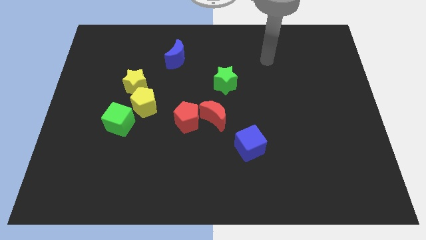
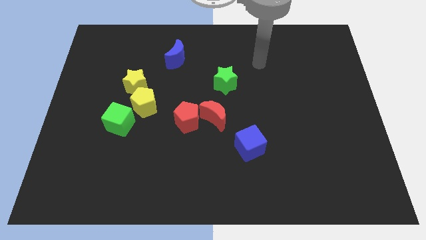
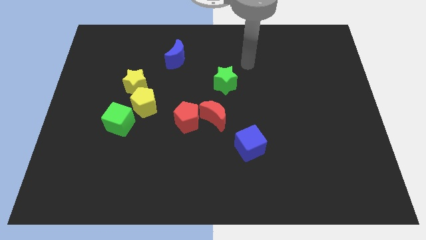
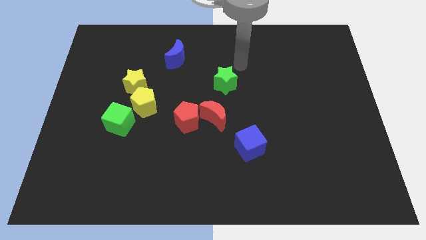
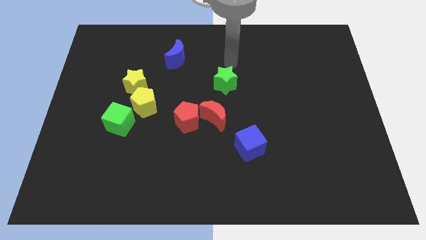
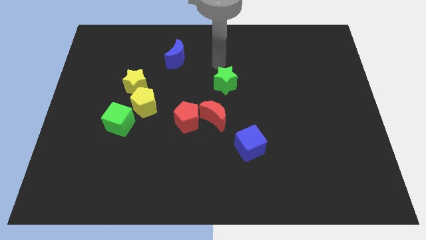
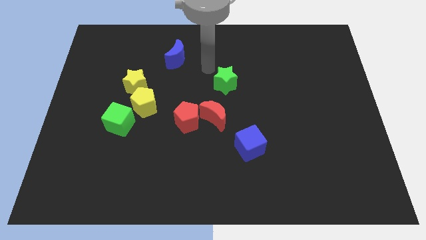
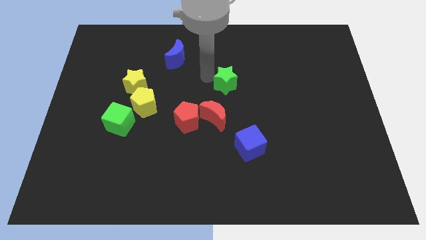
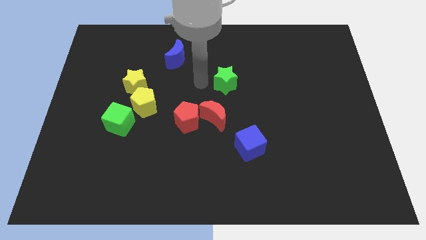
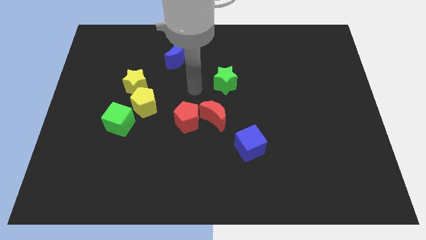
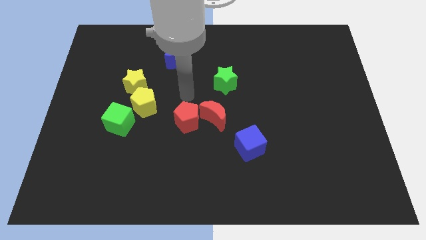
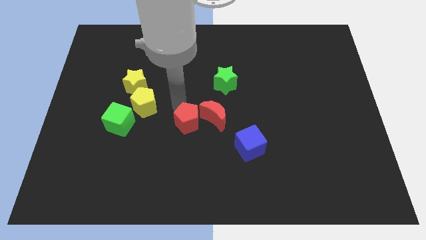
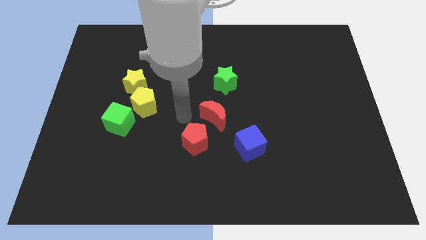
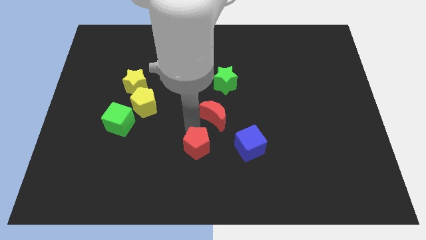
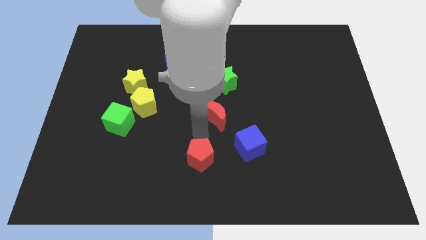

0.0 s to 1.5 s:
pull the red moon apart from the red pentagon

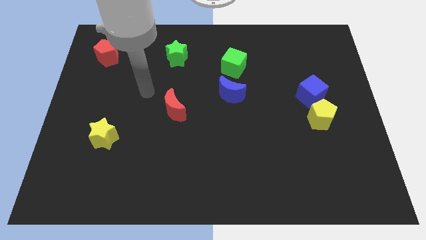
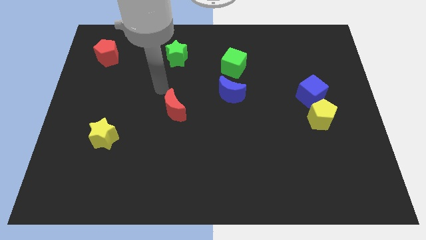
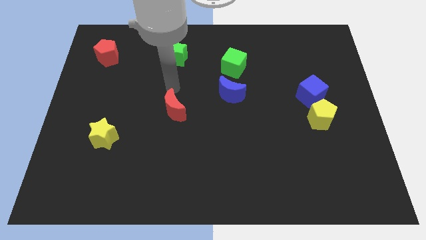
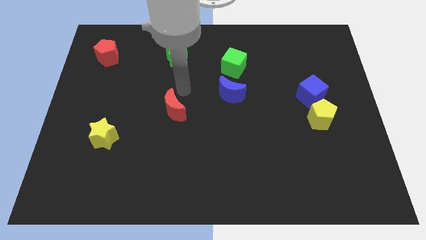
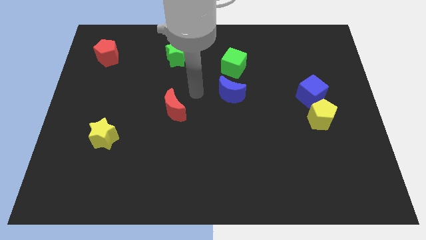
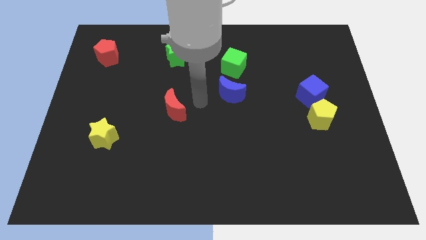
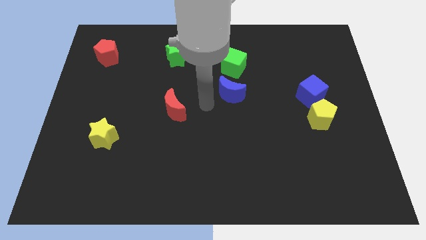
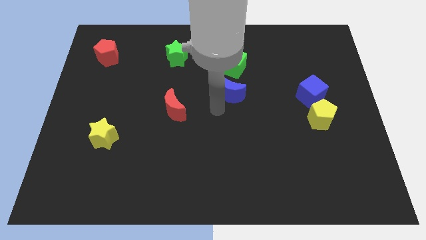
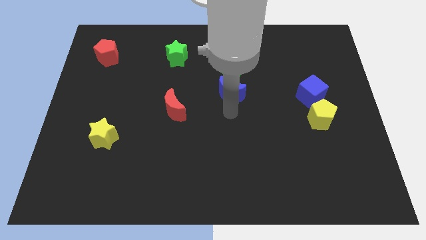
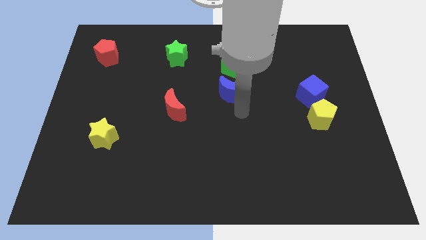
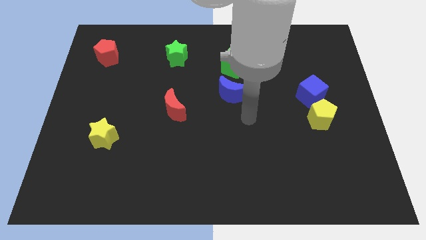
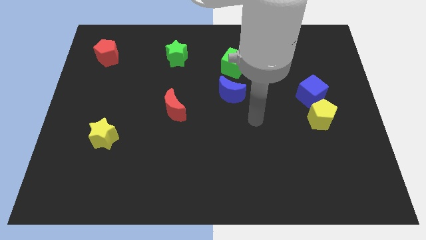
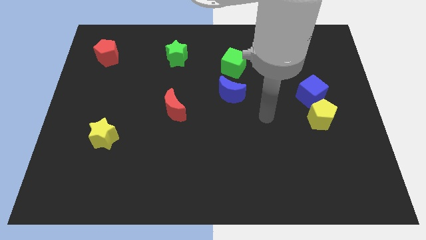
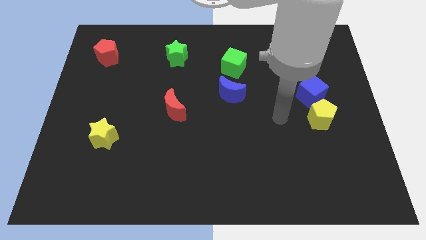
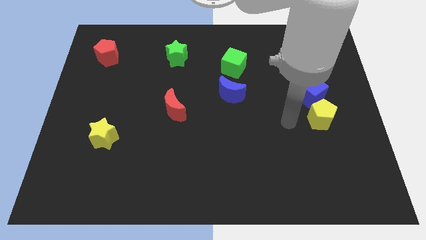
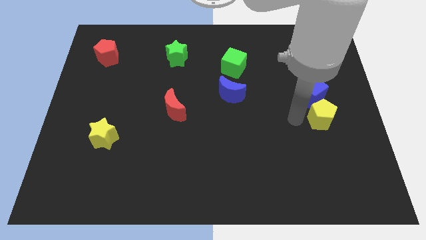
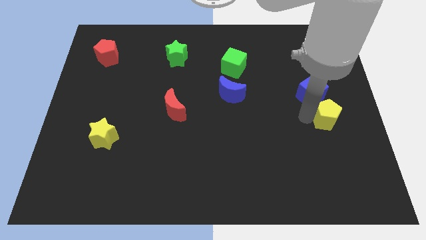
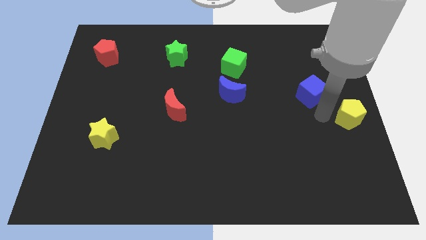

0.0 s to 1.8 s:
move the blue cube away from the yellow pentagon

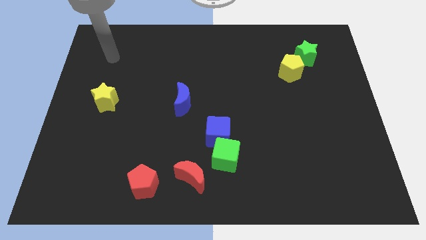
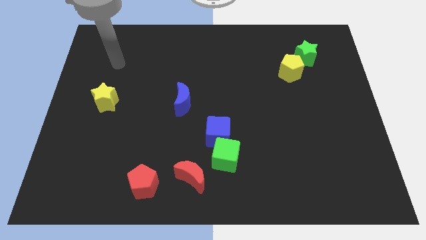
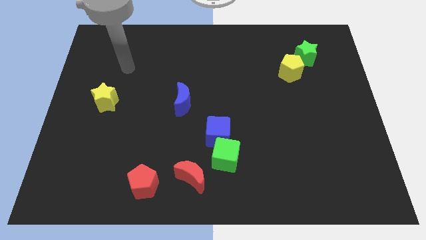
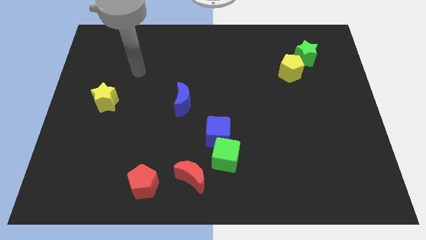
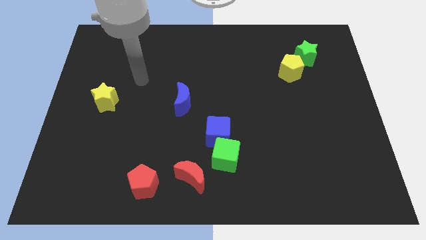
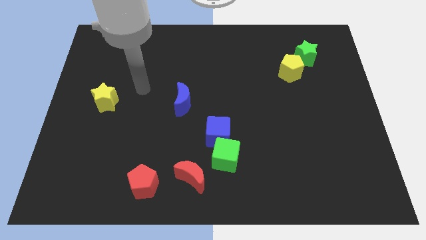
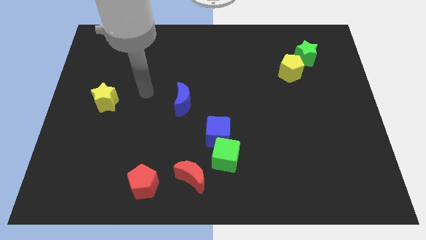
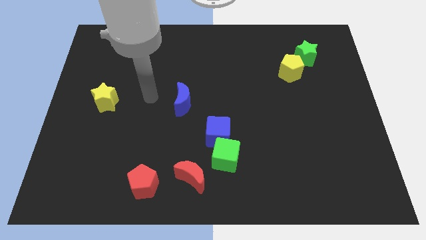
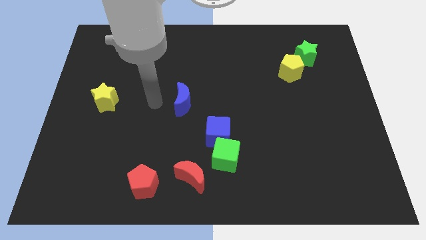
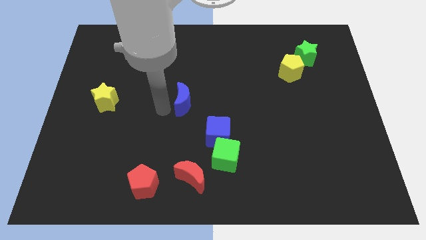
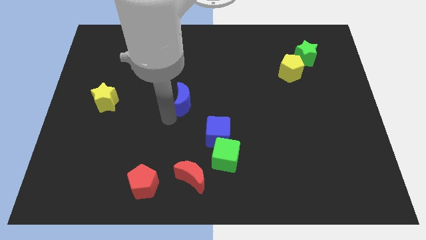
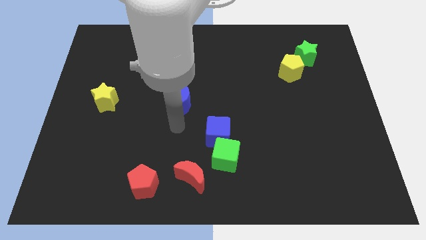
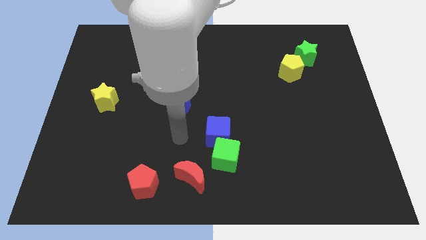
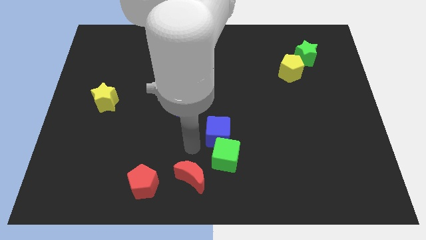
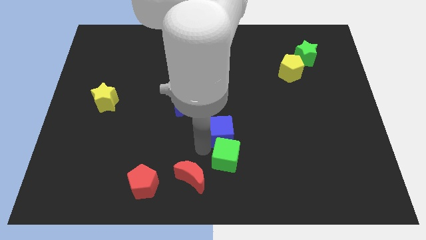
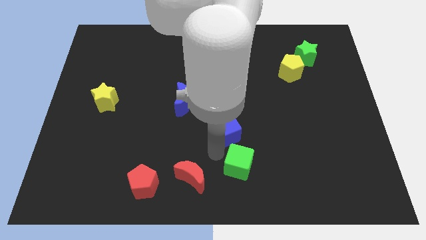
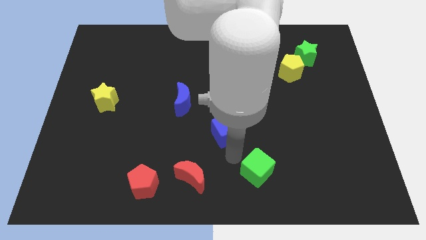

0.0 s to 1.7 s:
separate the blue cube from the green cube

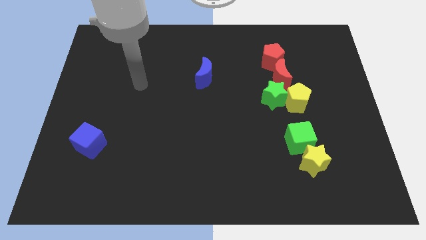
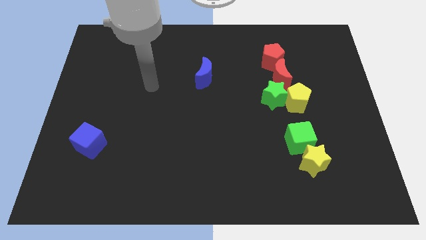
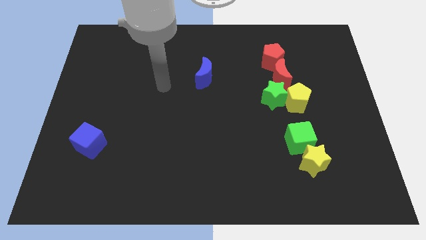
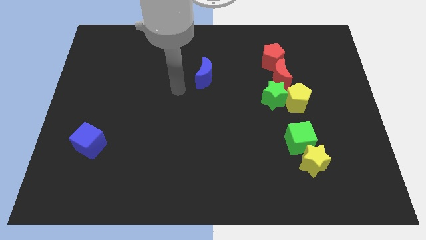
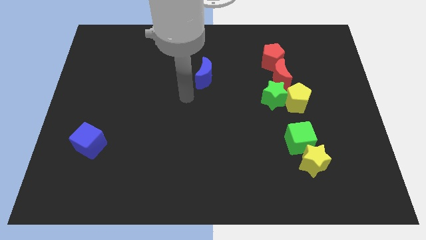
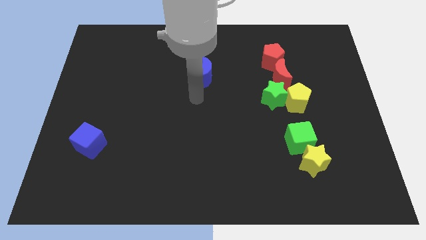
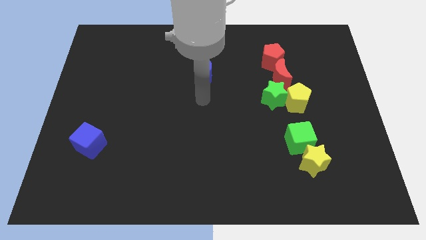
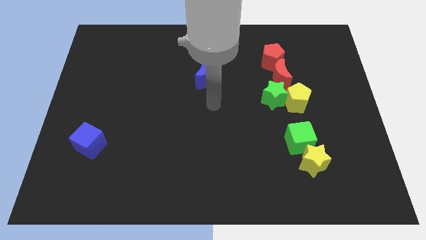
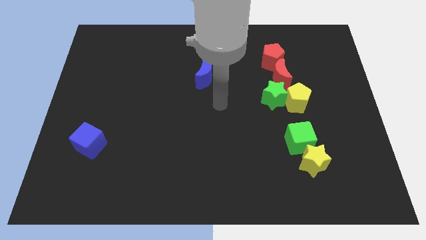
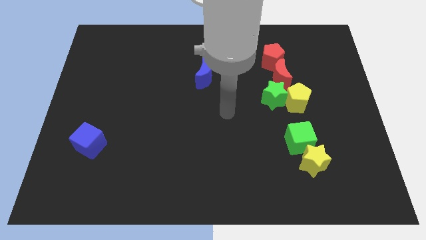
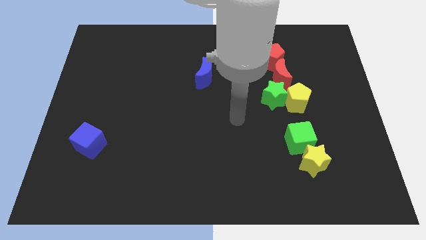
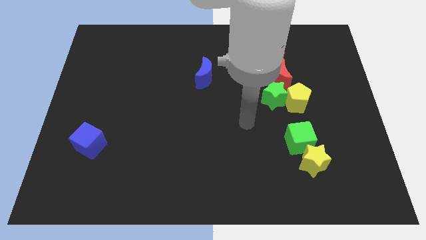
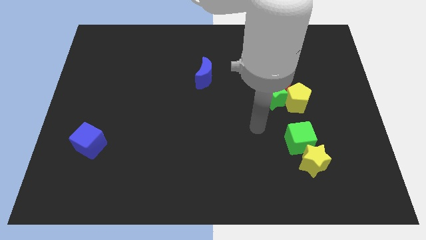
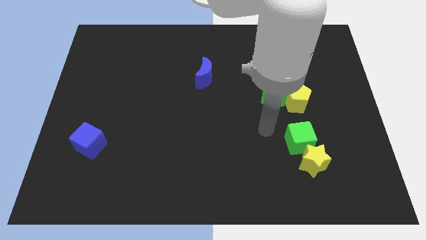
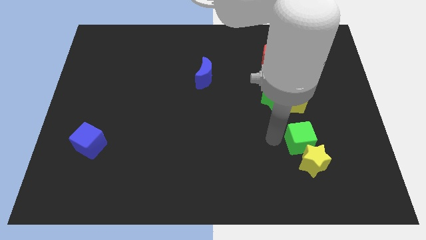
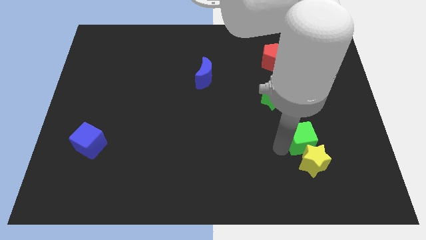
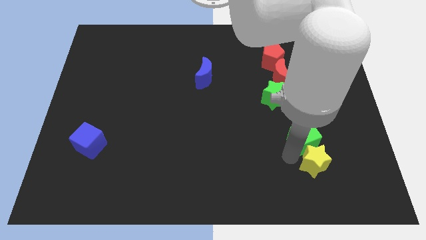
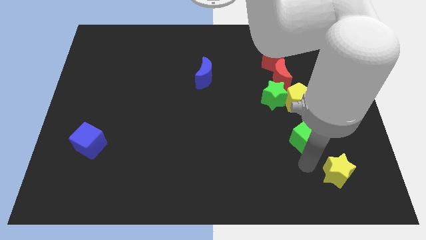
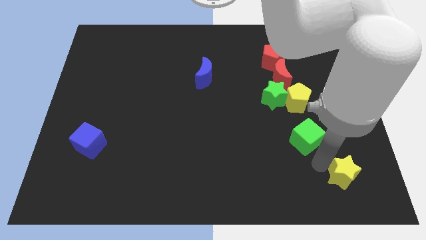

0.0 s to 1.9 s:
pull the green cube apart from the yellow star

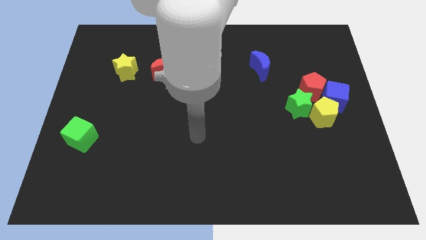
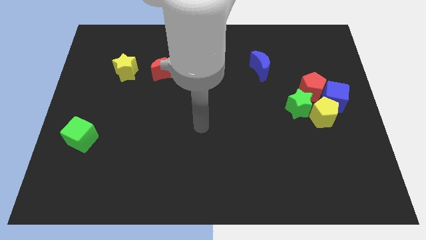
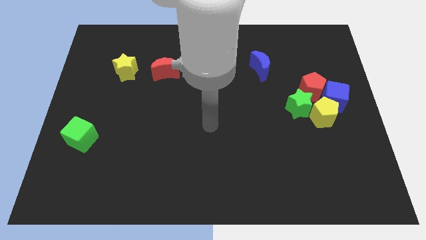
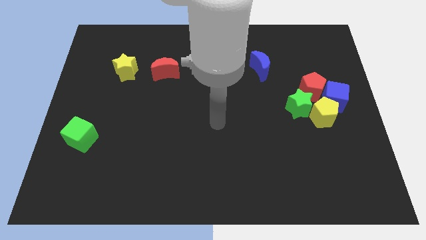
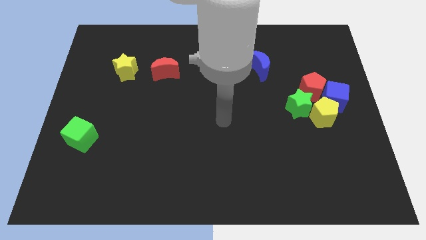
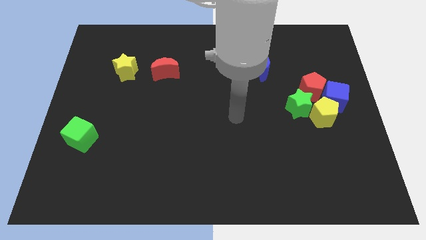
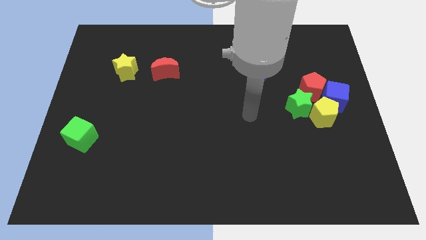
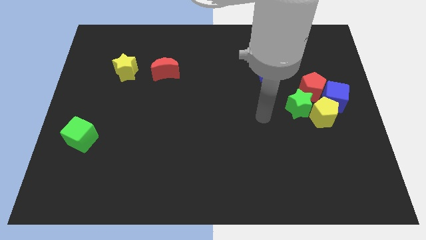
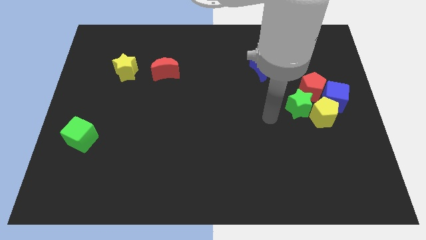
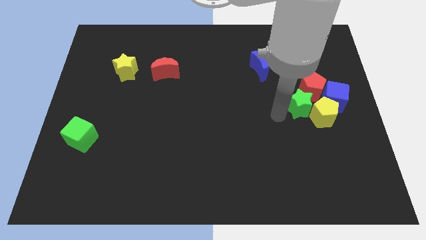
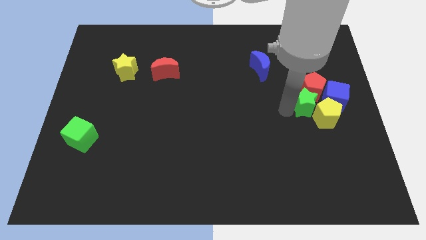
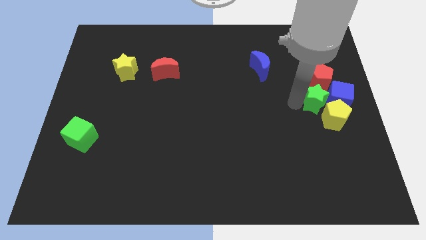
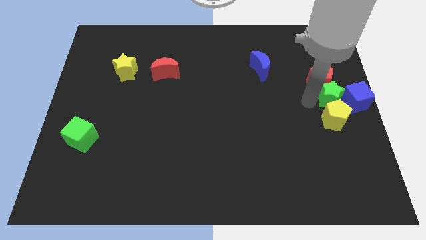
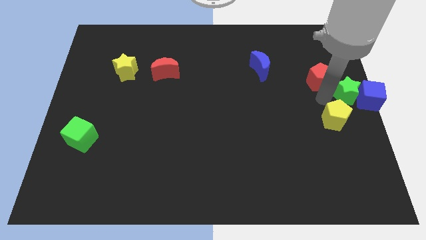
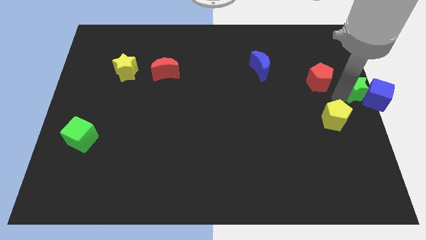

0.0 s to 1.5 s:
move the yellow pentagon away from the blue cube, green star, and red pentagon

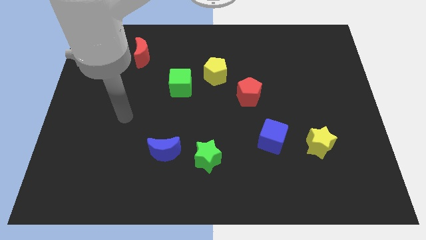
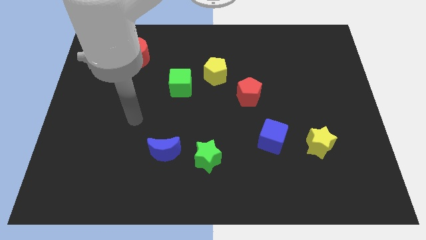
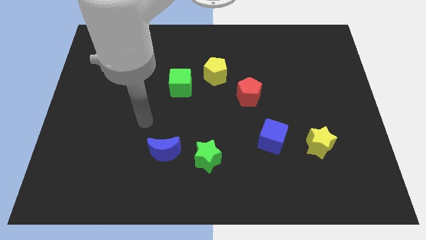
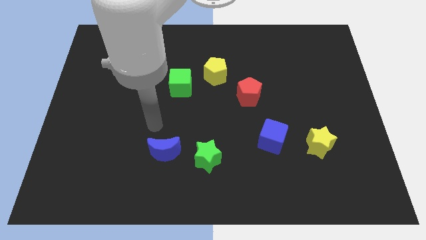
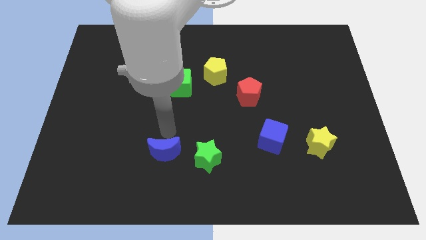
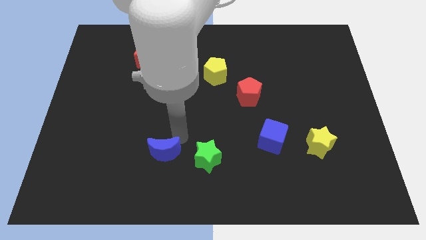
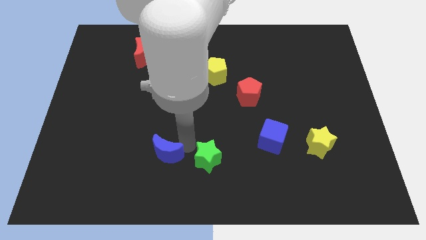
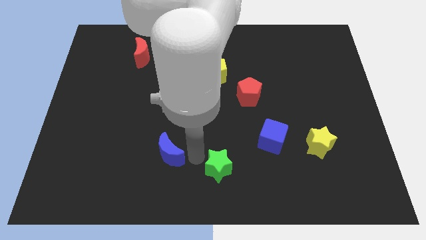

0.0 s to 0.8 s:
separate the blue moon from the green star

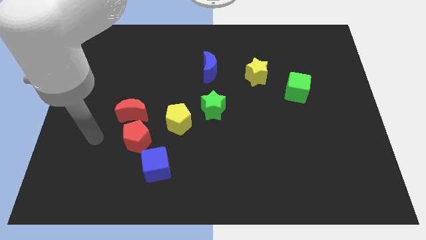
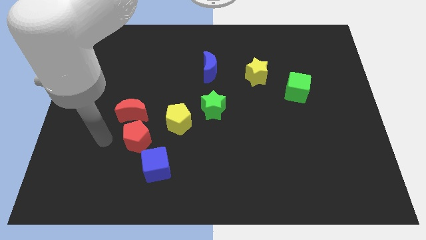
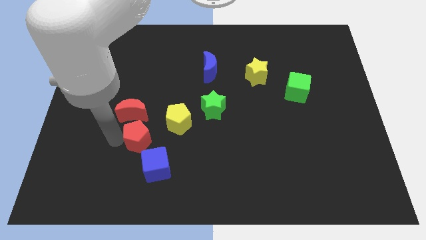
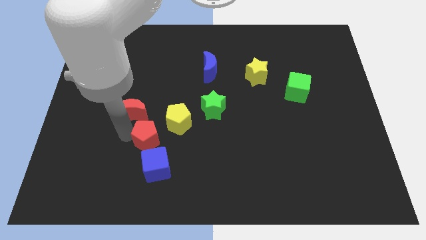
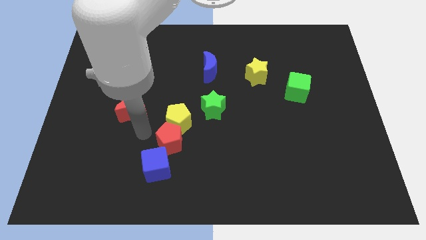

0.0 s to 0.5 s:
move the red moon away from the red pentagon
